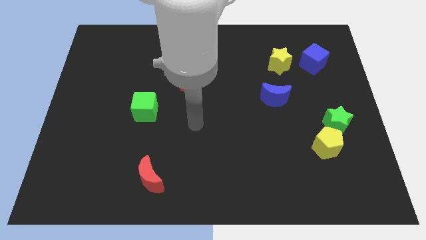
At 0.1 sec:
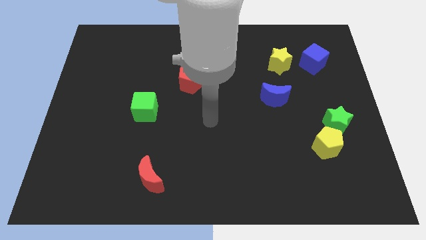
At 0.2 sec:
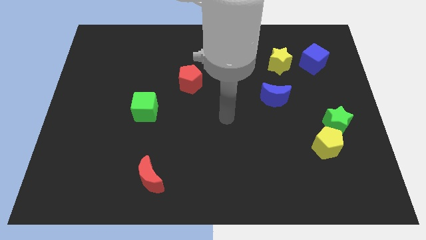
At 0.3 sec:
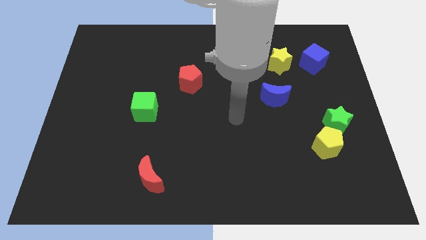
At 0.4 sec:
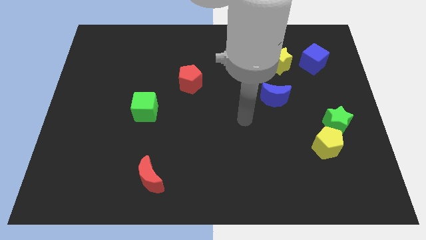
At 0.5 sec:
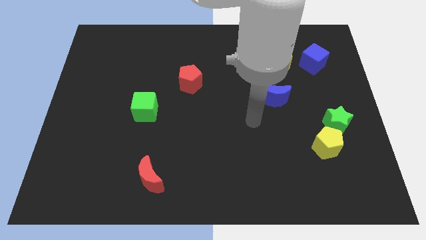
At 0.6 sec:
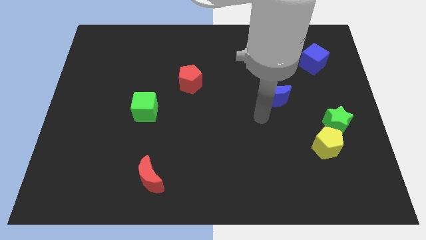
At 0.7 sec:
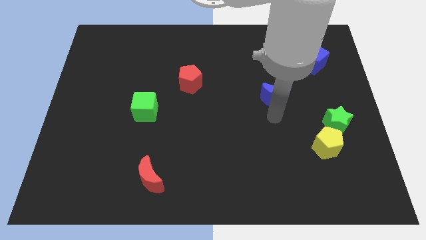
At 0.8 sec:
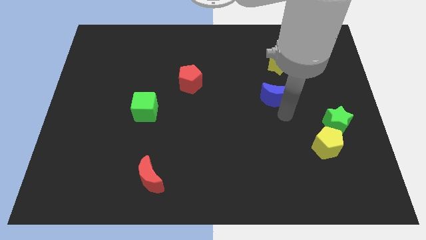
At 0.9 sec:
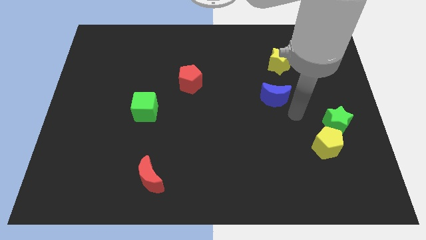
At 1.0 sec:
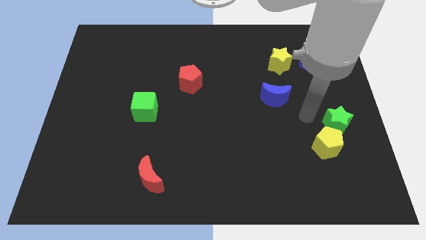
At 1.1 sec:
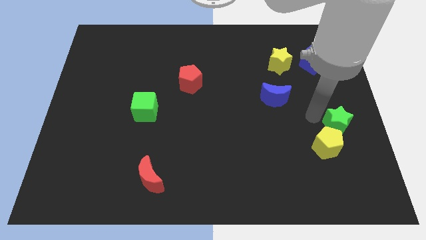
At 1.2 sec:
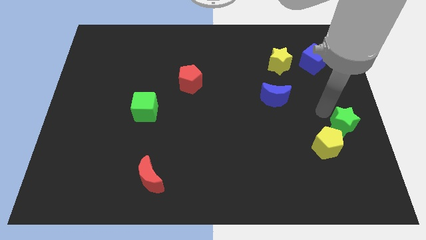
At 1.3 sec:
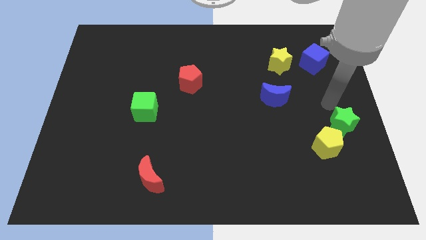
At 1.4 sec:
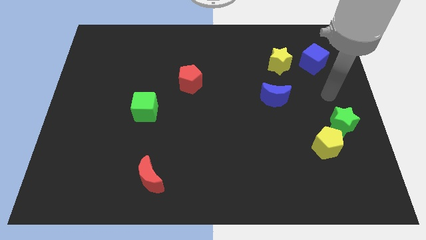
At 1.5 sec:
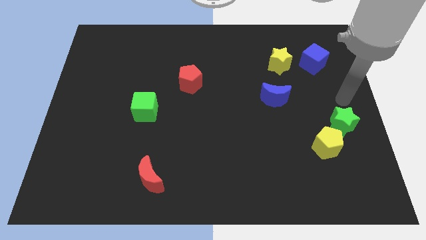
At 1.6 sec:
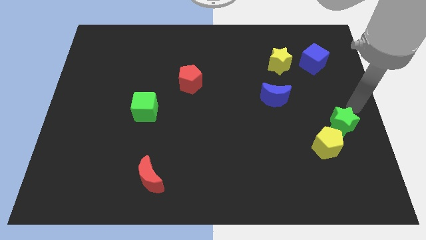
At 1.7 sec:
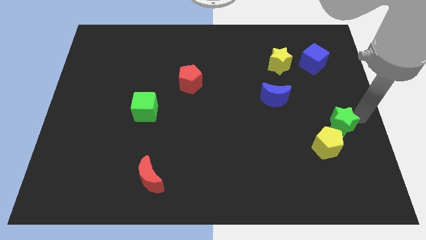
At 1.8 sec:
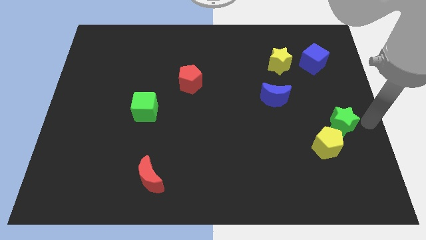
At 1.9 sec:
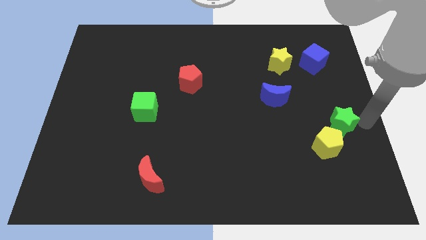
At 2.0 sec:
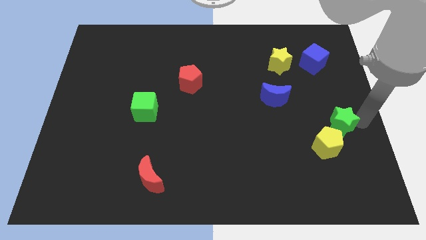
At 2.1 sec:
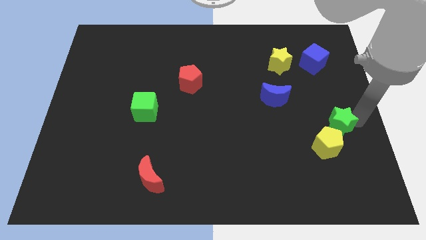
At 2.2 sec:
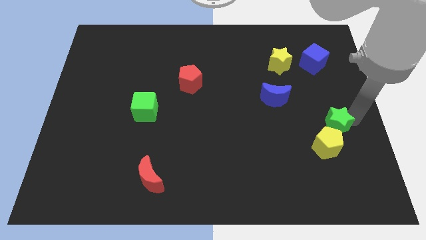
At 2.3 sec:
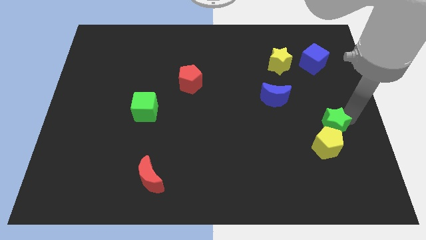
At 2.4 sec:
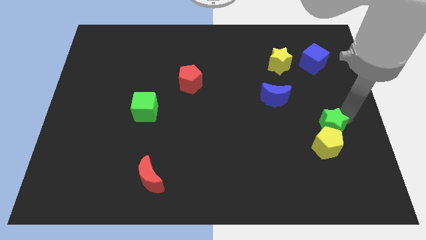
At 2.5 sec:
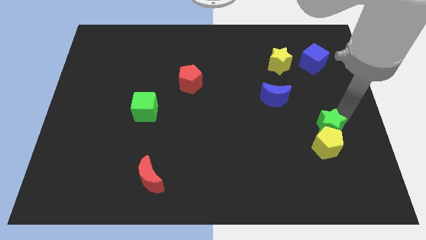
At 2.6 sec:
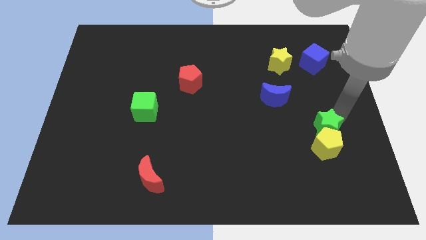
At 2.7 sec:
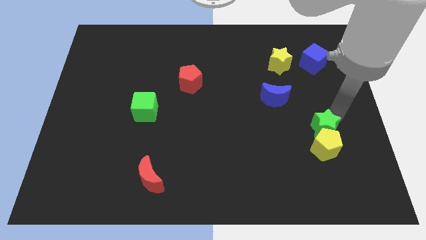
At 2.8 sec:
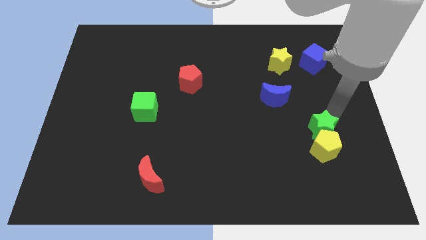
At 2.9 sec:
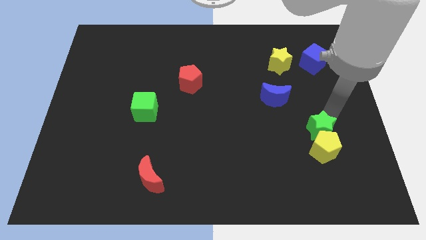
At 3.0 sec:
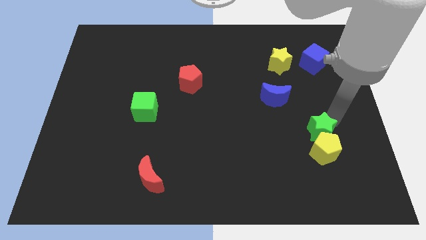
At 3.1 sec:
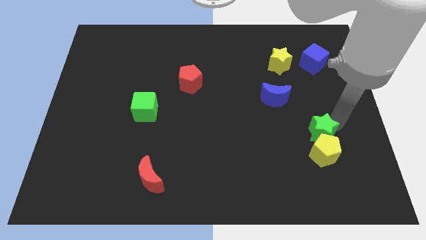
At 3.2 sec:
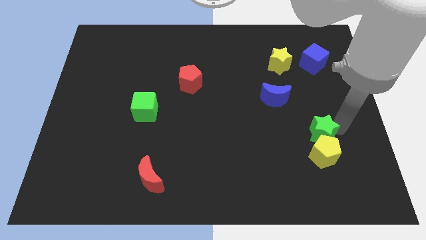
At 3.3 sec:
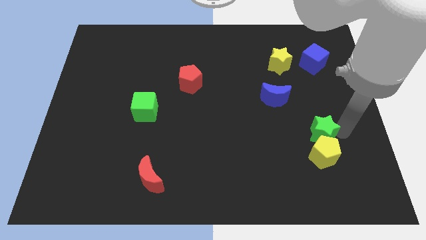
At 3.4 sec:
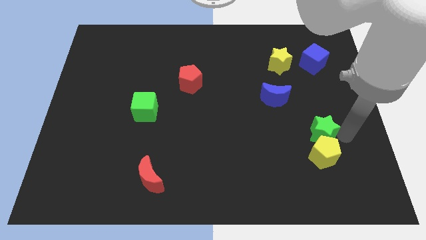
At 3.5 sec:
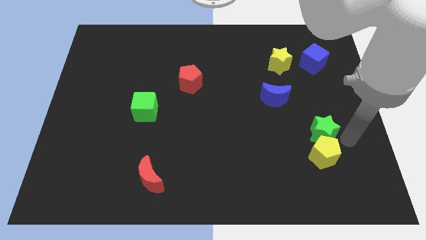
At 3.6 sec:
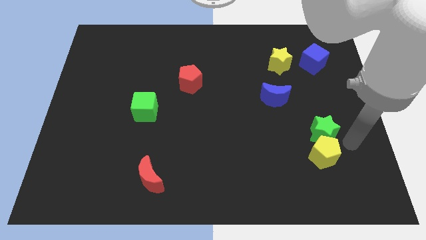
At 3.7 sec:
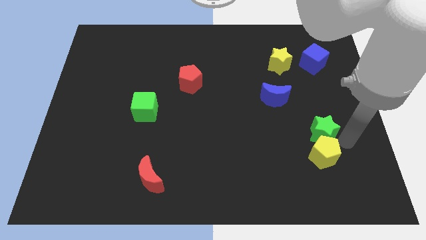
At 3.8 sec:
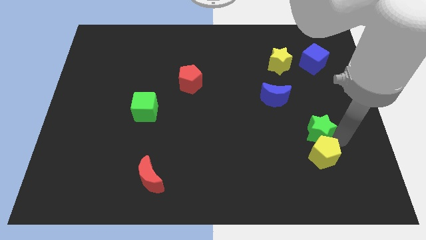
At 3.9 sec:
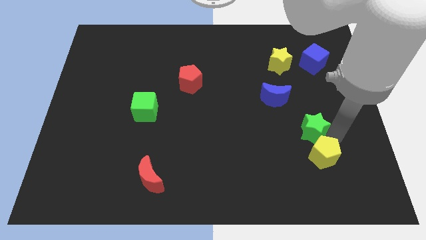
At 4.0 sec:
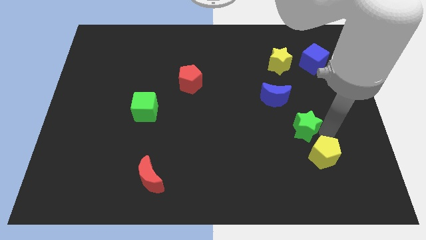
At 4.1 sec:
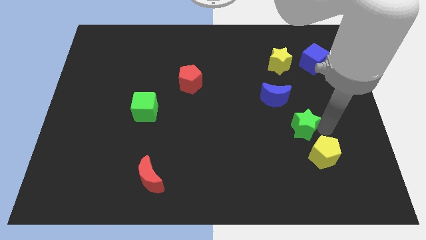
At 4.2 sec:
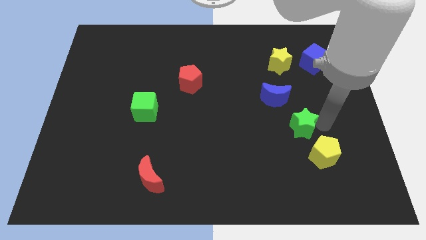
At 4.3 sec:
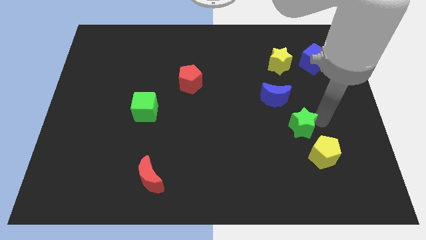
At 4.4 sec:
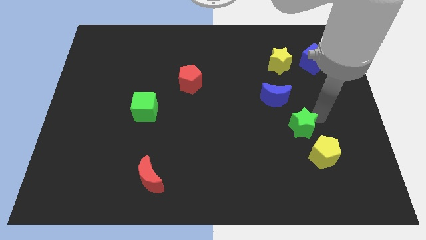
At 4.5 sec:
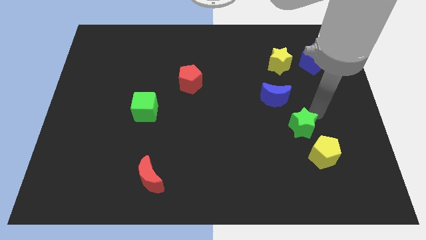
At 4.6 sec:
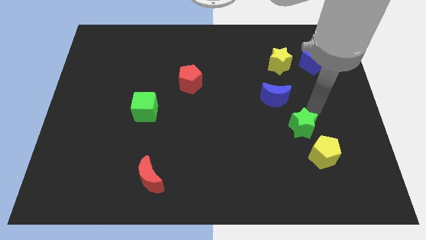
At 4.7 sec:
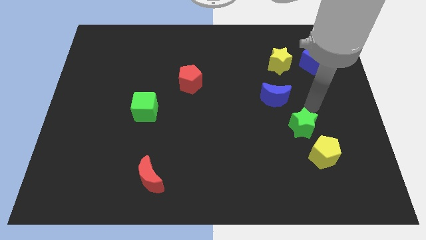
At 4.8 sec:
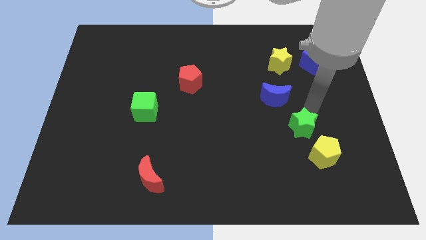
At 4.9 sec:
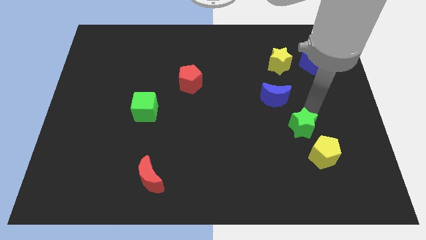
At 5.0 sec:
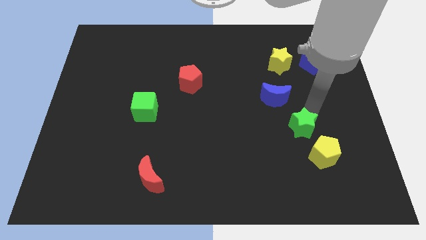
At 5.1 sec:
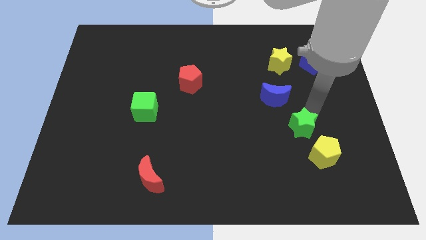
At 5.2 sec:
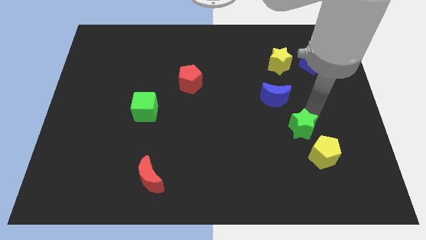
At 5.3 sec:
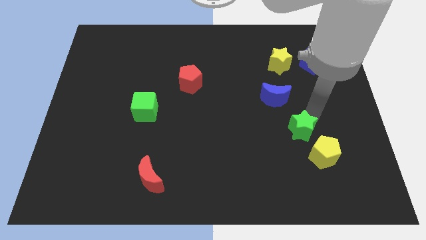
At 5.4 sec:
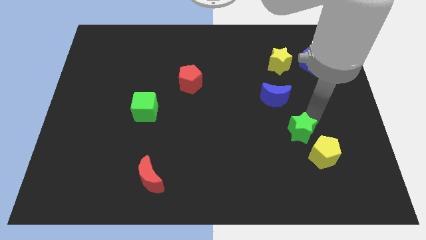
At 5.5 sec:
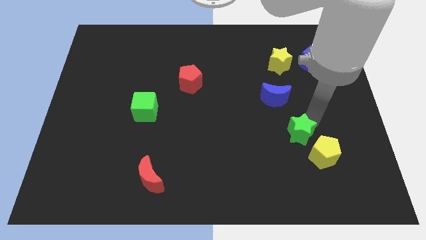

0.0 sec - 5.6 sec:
slightly push the green star diagonally down and left

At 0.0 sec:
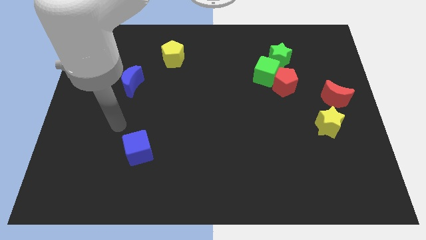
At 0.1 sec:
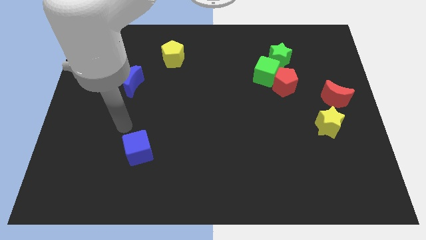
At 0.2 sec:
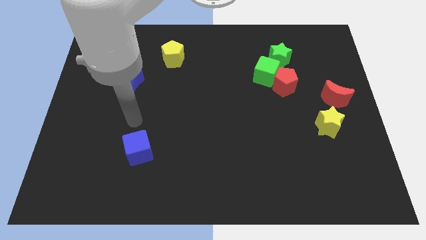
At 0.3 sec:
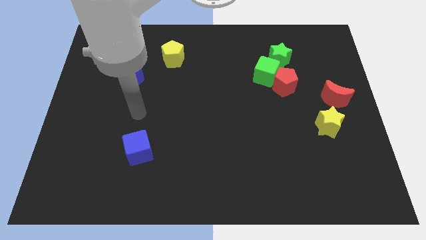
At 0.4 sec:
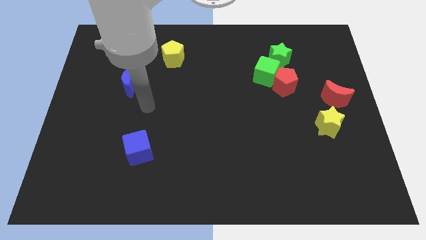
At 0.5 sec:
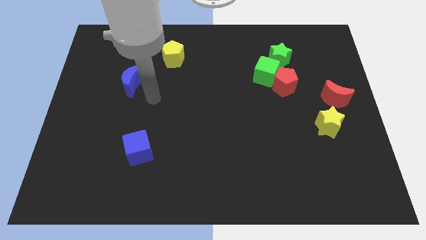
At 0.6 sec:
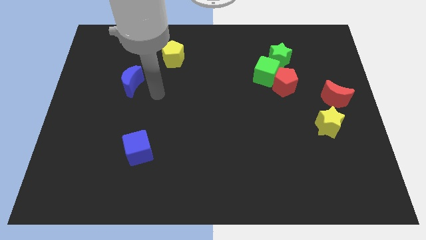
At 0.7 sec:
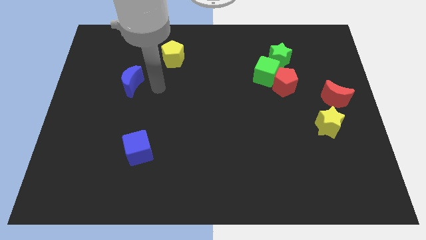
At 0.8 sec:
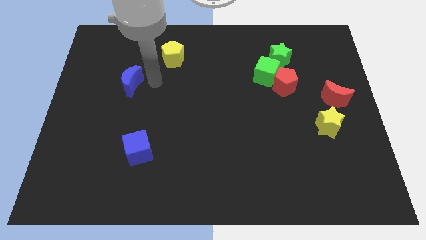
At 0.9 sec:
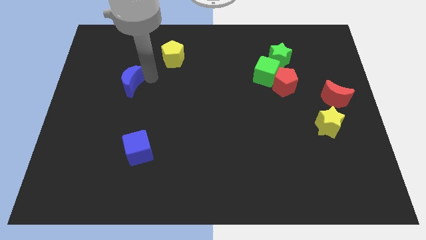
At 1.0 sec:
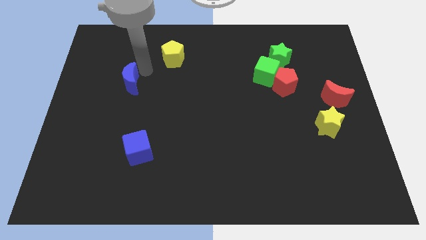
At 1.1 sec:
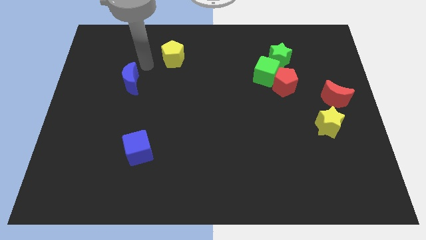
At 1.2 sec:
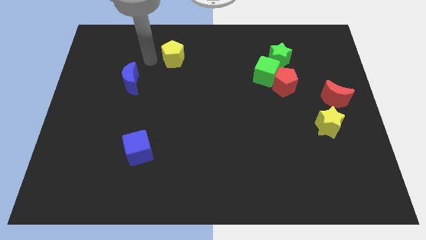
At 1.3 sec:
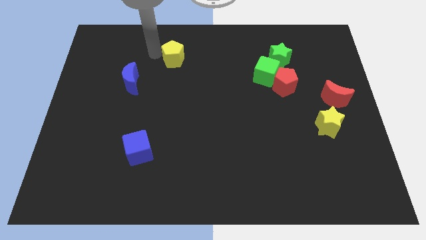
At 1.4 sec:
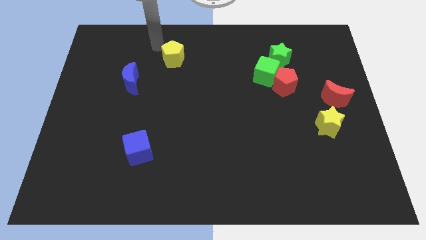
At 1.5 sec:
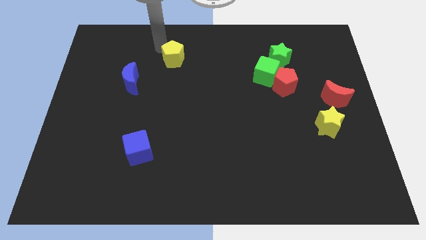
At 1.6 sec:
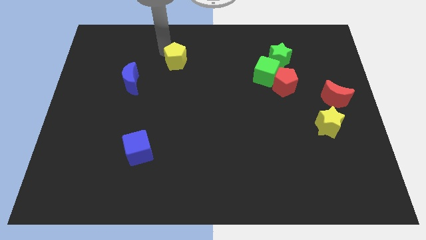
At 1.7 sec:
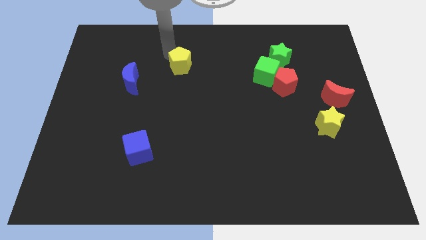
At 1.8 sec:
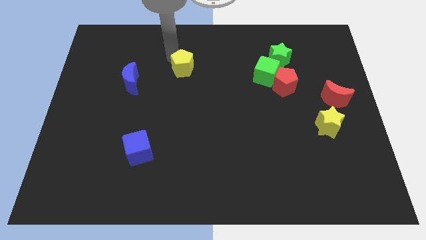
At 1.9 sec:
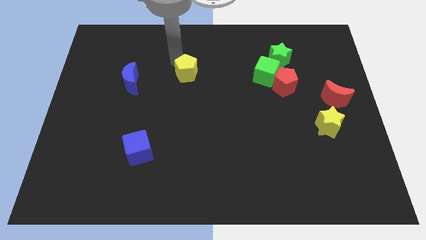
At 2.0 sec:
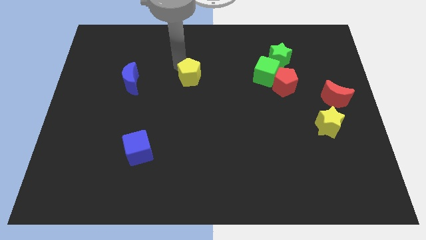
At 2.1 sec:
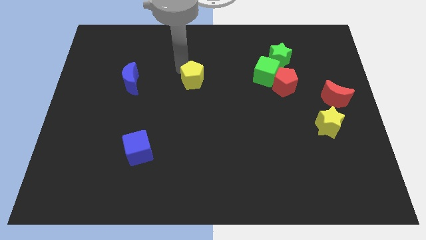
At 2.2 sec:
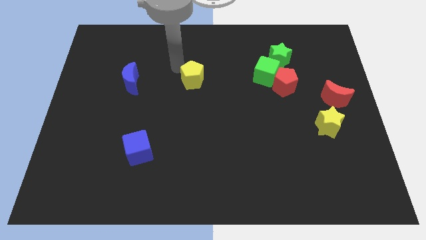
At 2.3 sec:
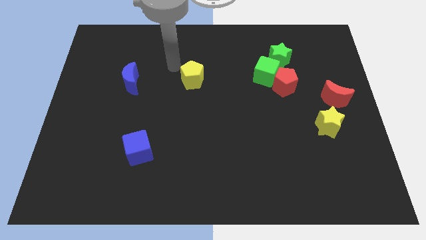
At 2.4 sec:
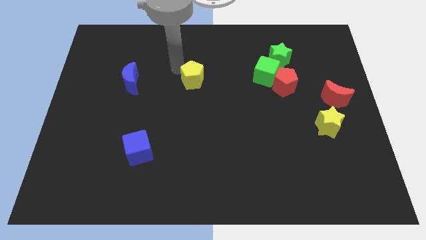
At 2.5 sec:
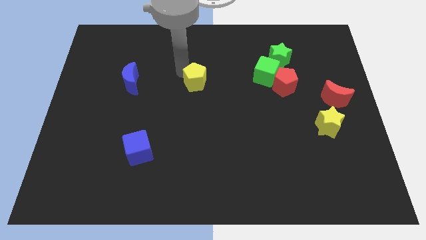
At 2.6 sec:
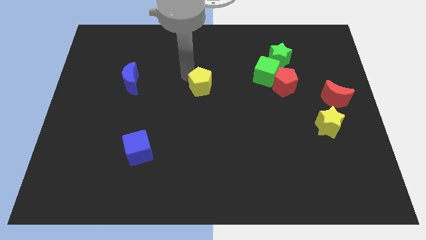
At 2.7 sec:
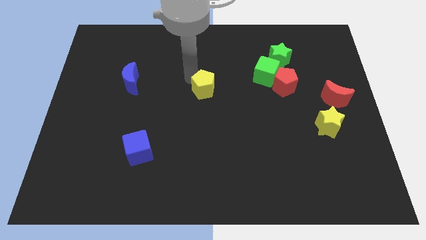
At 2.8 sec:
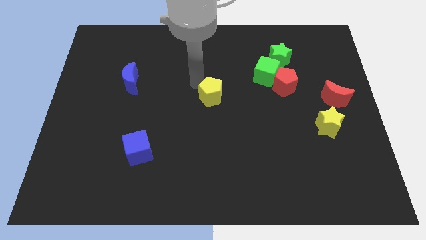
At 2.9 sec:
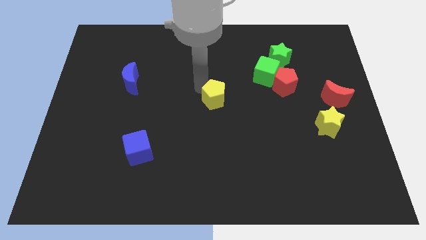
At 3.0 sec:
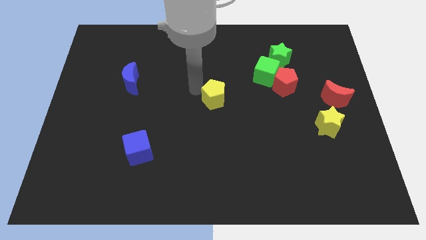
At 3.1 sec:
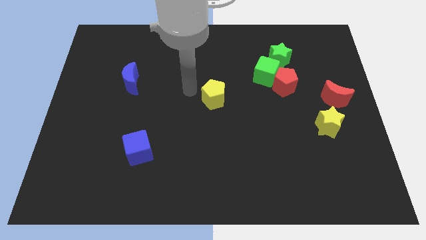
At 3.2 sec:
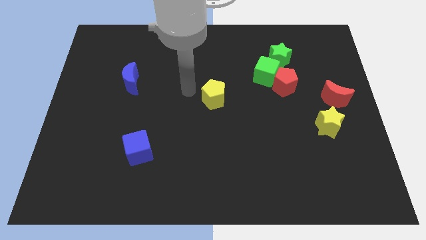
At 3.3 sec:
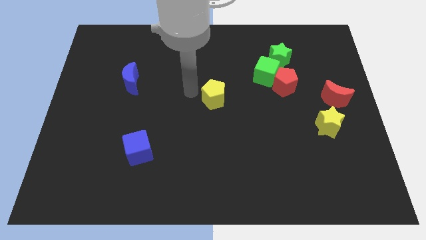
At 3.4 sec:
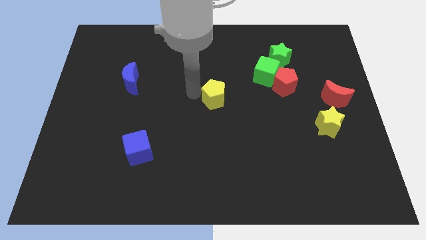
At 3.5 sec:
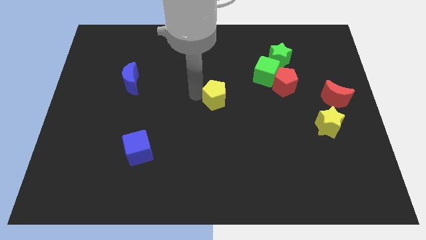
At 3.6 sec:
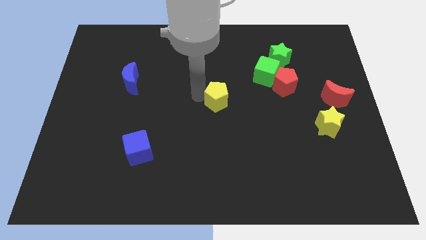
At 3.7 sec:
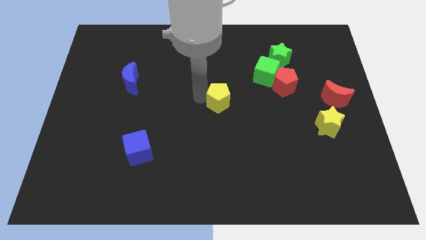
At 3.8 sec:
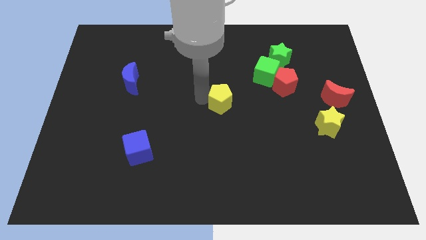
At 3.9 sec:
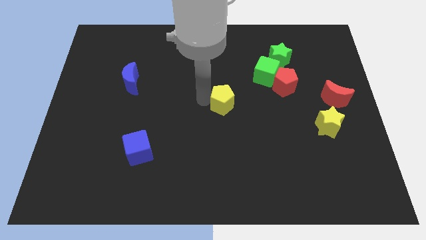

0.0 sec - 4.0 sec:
push the yellow pentagon down and right diagonally
